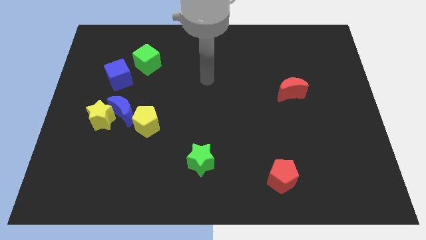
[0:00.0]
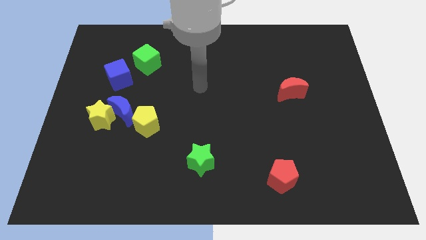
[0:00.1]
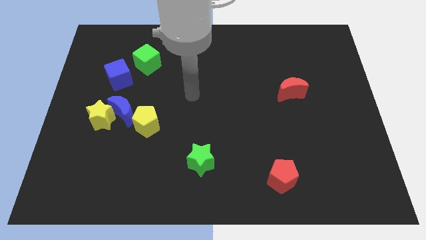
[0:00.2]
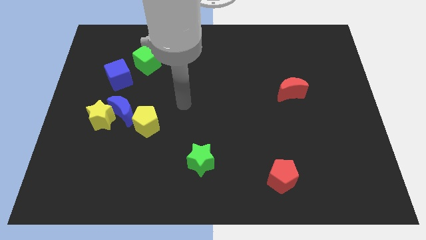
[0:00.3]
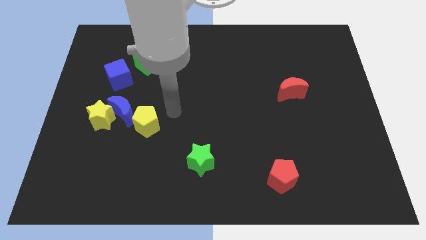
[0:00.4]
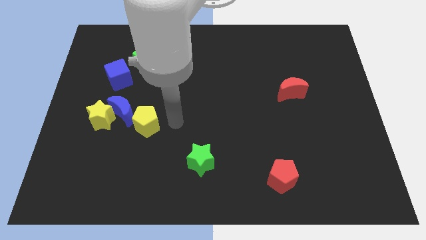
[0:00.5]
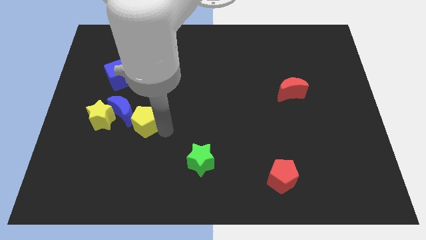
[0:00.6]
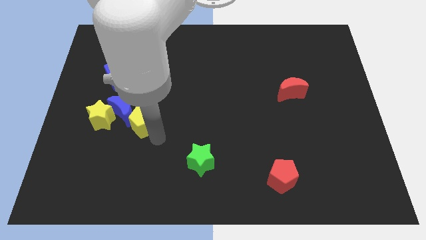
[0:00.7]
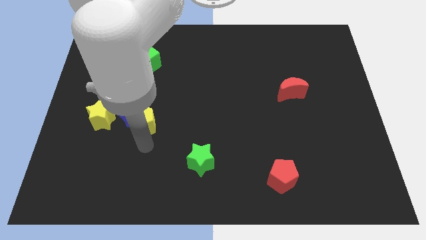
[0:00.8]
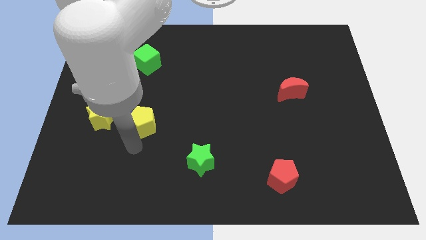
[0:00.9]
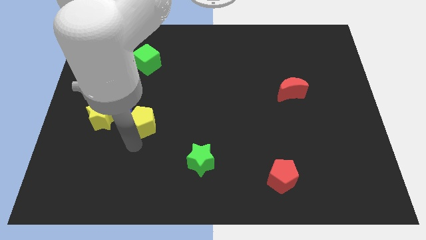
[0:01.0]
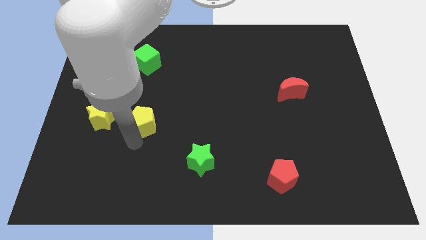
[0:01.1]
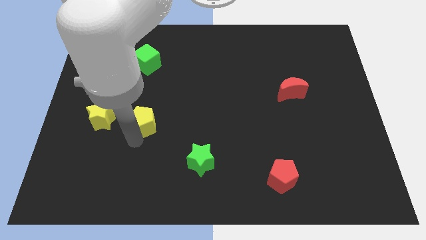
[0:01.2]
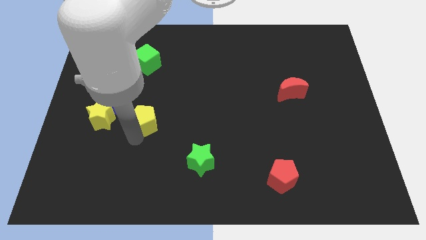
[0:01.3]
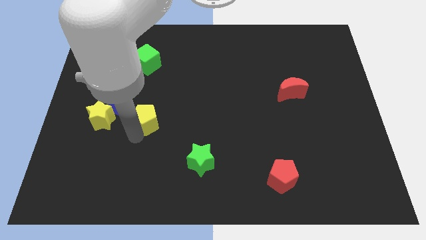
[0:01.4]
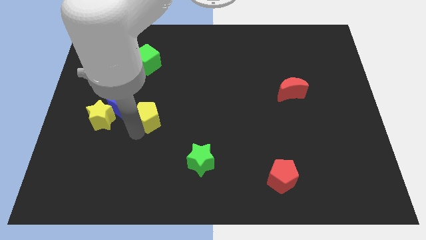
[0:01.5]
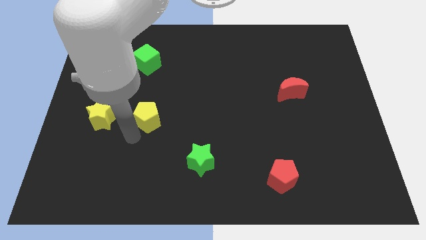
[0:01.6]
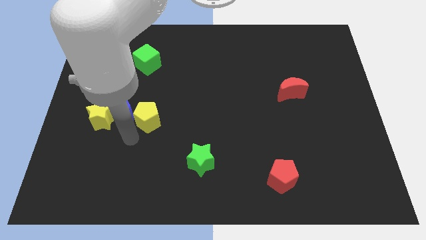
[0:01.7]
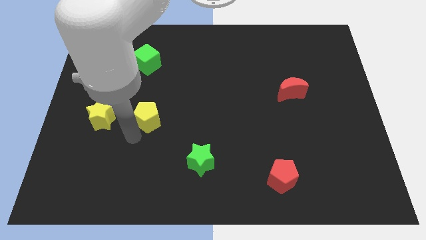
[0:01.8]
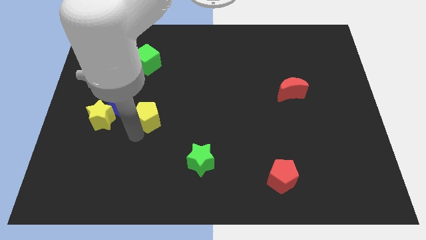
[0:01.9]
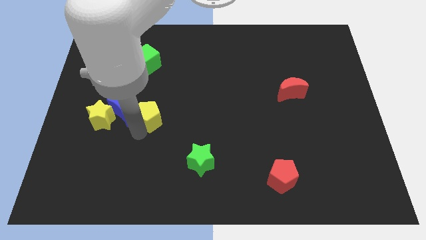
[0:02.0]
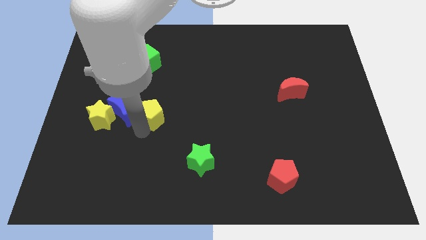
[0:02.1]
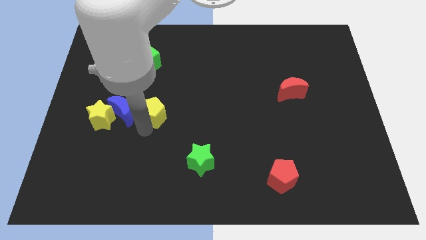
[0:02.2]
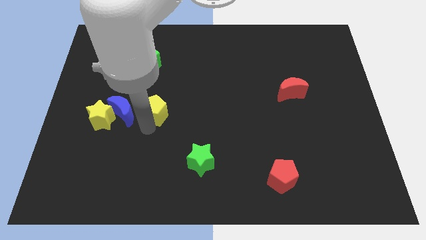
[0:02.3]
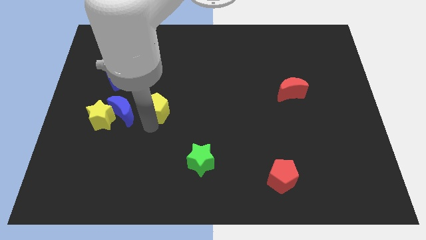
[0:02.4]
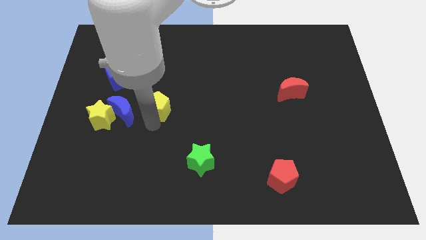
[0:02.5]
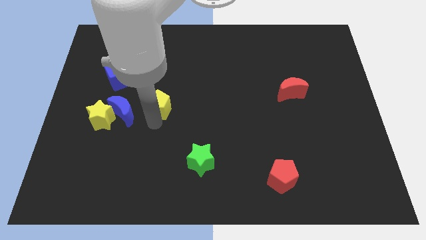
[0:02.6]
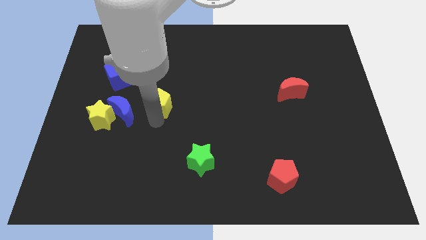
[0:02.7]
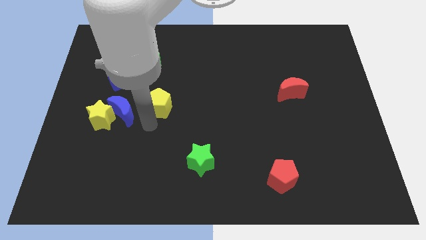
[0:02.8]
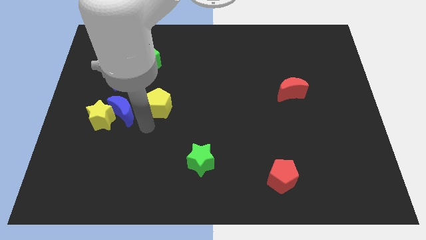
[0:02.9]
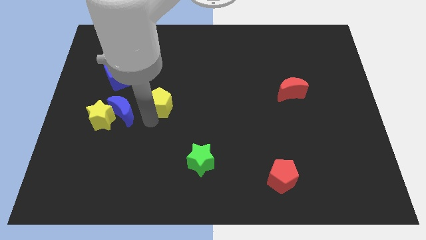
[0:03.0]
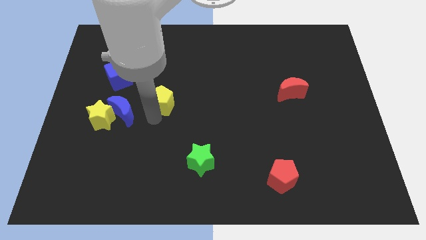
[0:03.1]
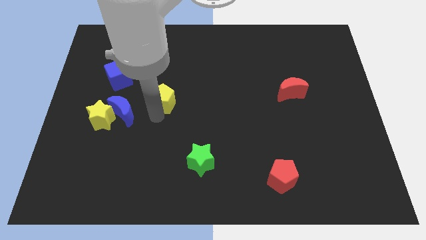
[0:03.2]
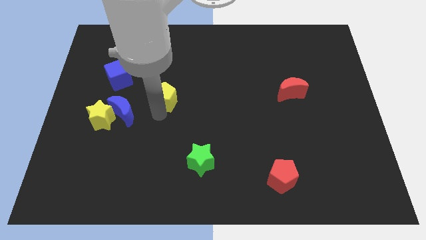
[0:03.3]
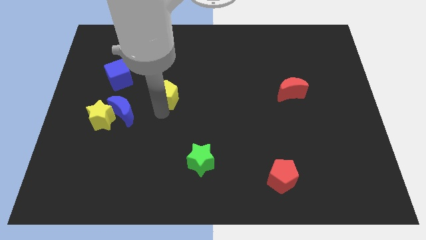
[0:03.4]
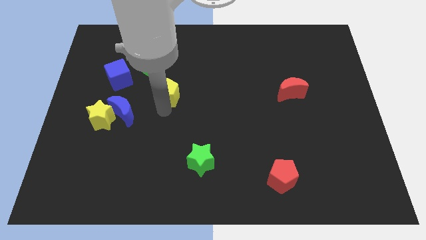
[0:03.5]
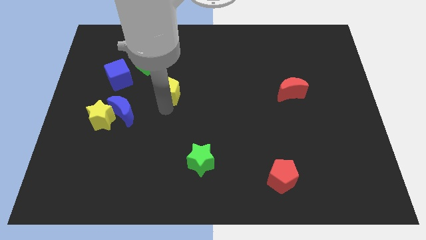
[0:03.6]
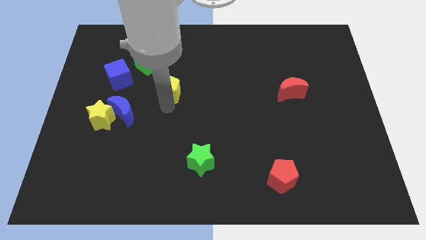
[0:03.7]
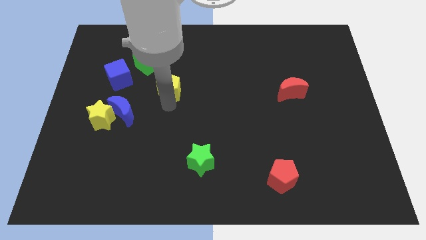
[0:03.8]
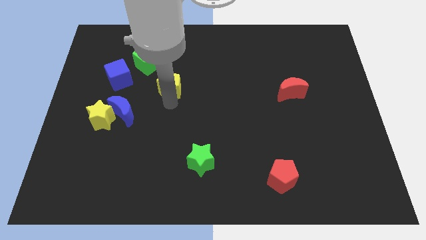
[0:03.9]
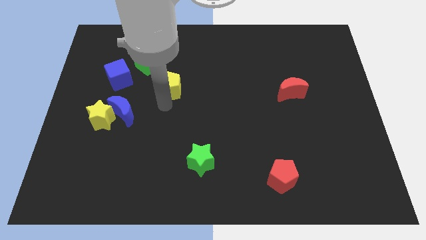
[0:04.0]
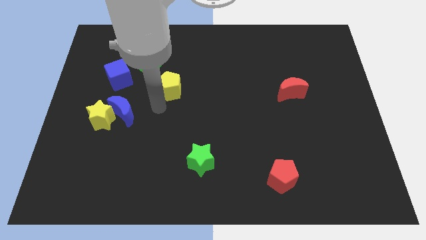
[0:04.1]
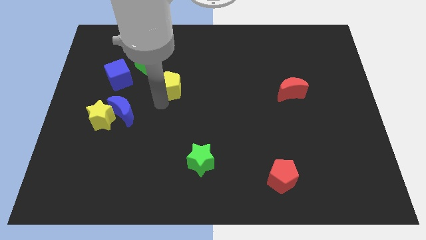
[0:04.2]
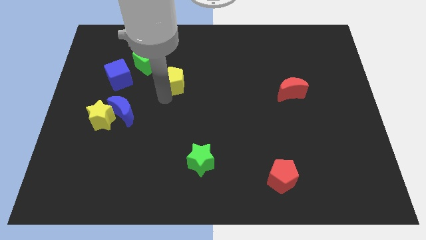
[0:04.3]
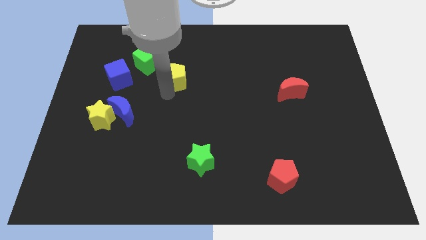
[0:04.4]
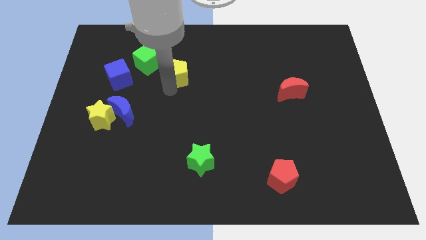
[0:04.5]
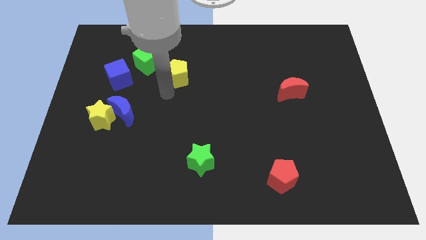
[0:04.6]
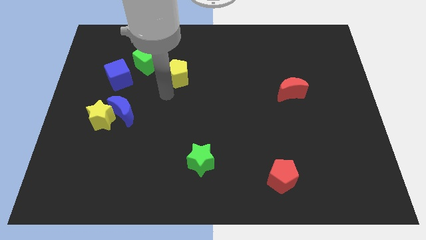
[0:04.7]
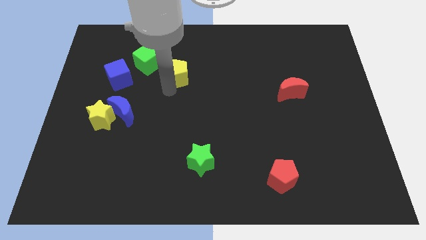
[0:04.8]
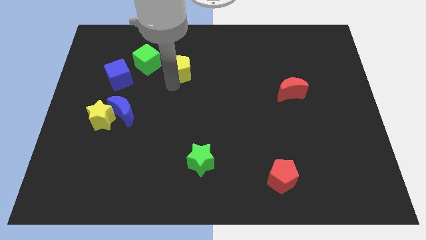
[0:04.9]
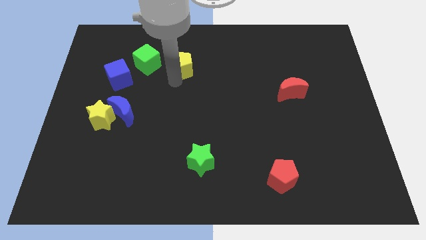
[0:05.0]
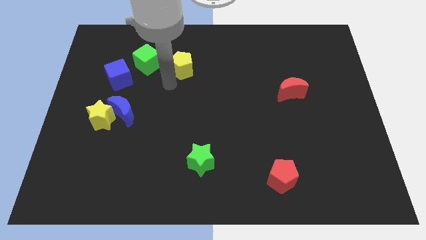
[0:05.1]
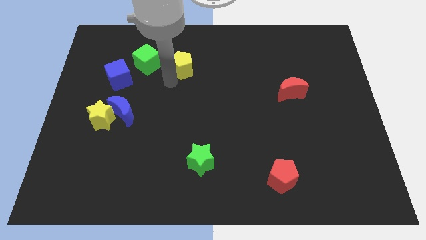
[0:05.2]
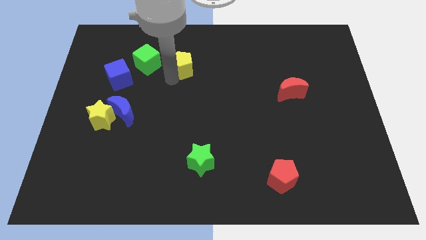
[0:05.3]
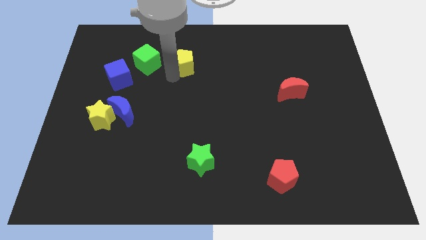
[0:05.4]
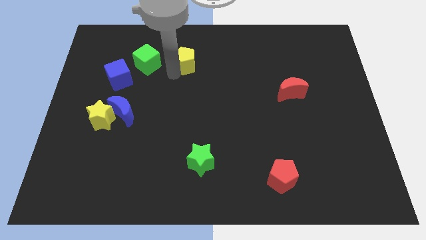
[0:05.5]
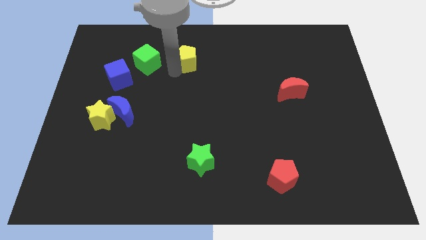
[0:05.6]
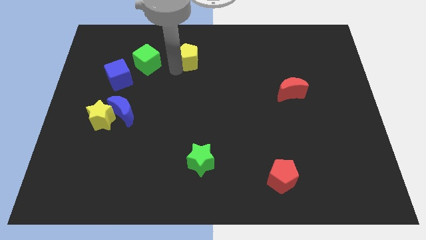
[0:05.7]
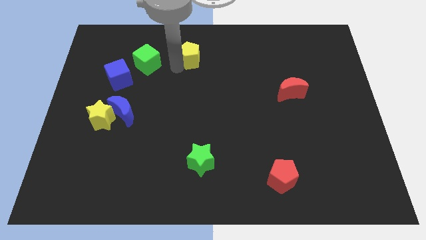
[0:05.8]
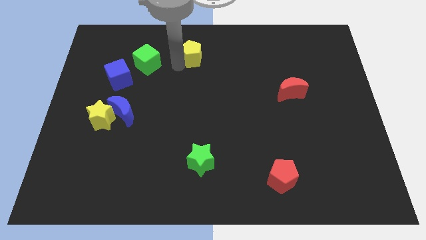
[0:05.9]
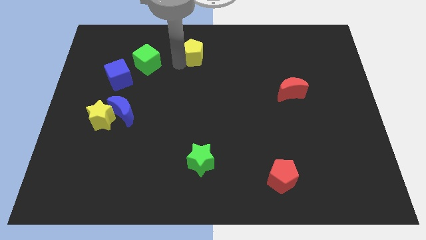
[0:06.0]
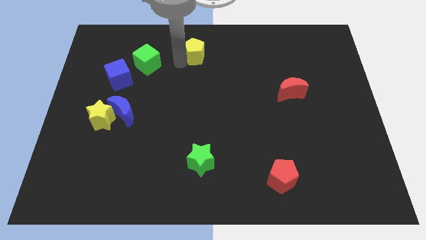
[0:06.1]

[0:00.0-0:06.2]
slide the yellow pentagon to the top

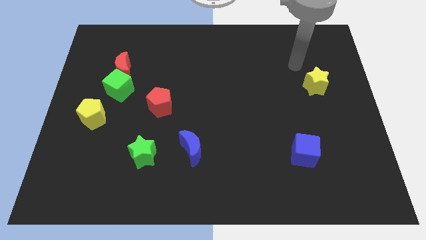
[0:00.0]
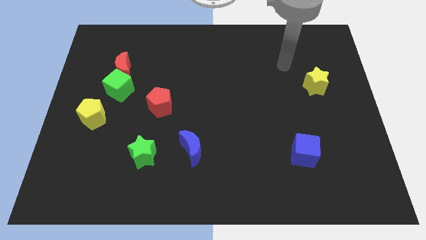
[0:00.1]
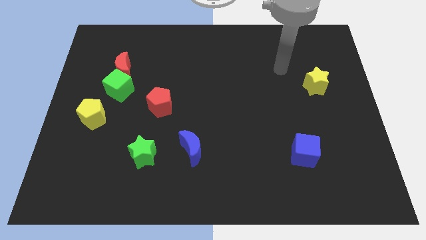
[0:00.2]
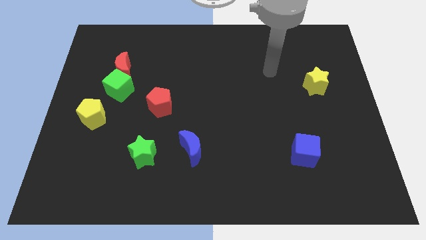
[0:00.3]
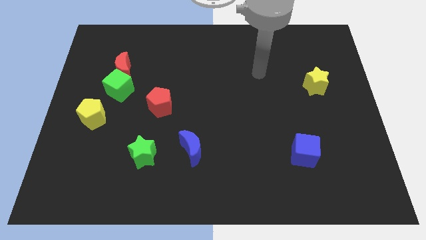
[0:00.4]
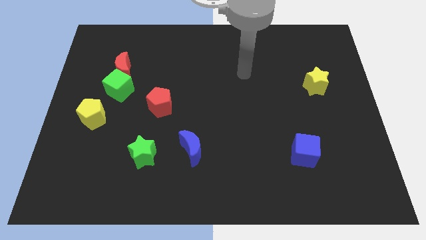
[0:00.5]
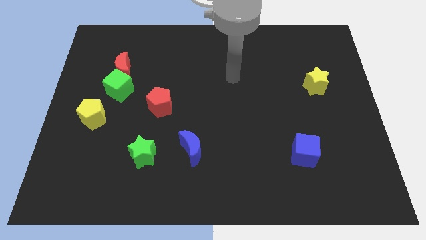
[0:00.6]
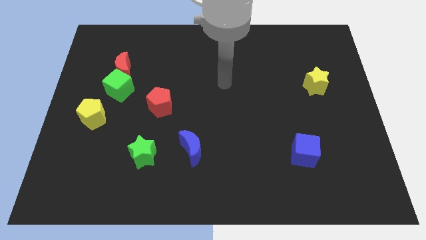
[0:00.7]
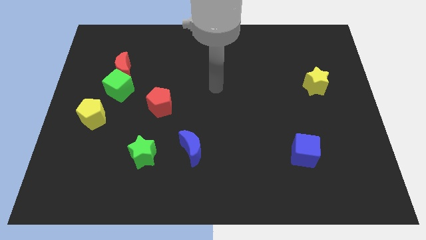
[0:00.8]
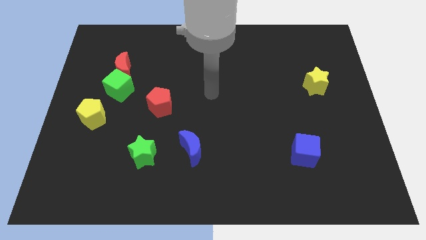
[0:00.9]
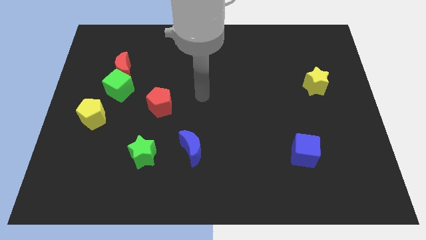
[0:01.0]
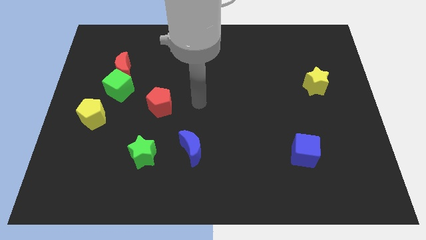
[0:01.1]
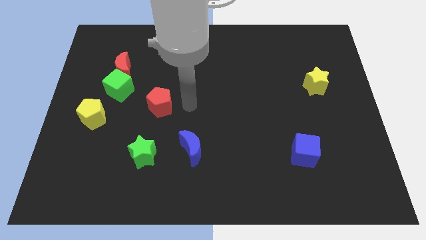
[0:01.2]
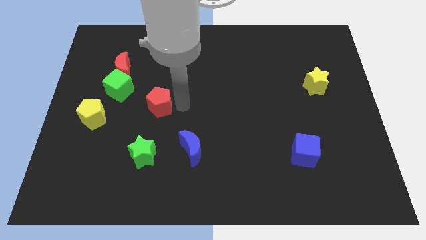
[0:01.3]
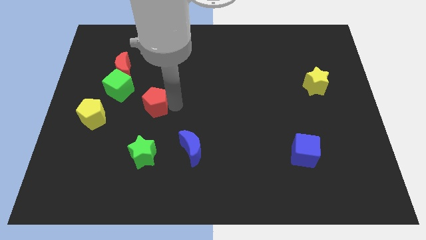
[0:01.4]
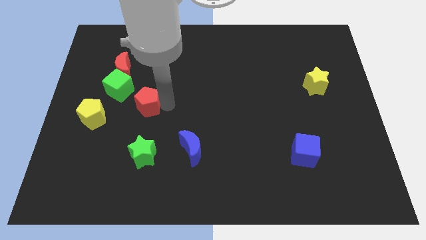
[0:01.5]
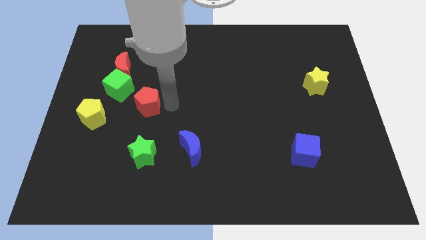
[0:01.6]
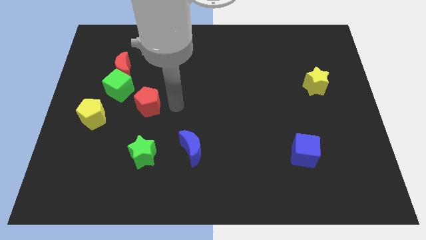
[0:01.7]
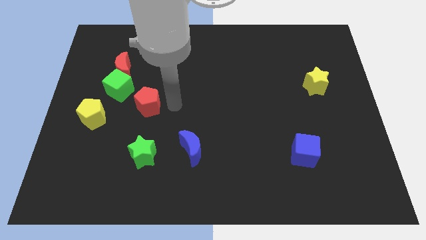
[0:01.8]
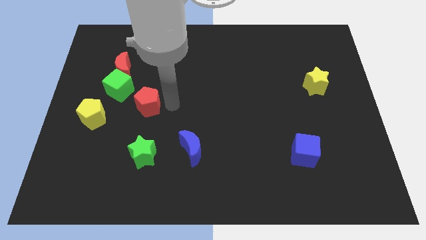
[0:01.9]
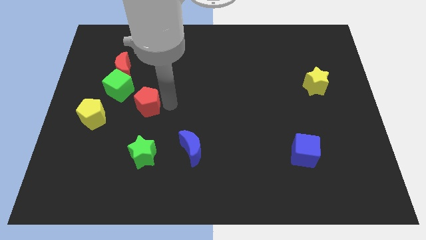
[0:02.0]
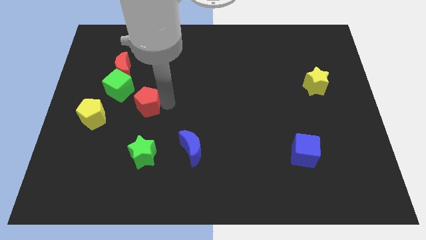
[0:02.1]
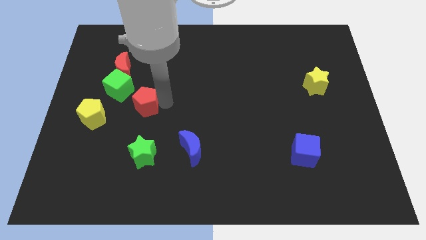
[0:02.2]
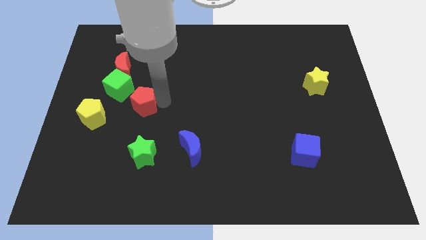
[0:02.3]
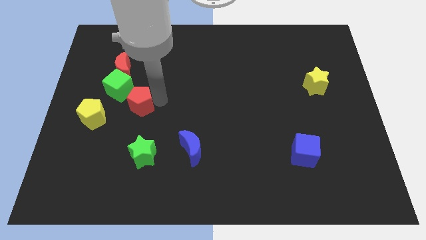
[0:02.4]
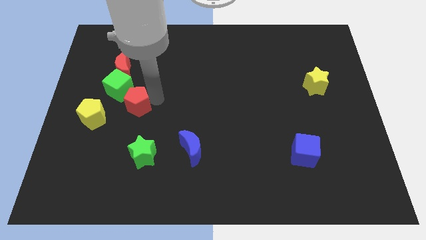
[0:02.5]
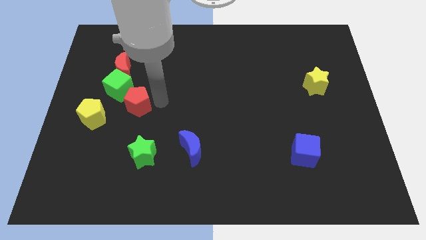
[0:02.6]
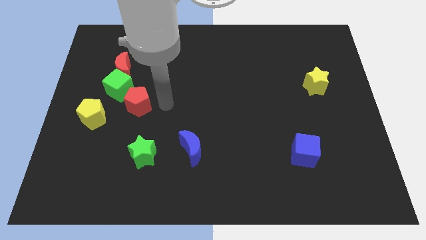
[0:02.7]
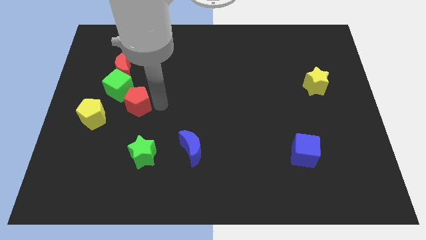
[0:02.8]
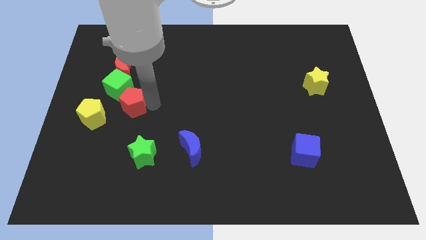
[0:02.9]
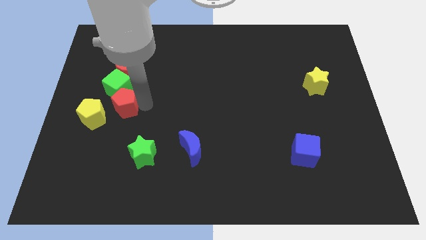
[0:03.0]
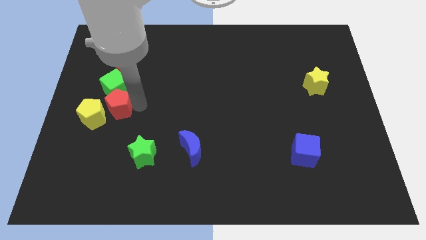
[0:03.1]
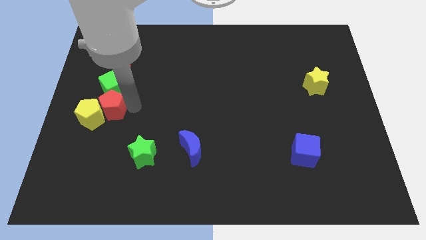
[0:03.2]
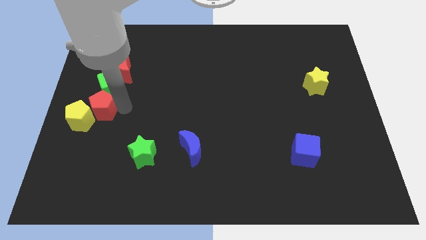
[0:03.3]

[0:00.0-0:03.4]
push the red pentagon to the center left
